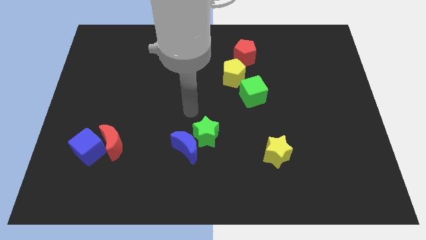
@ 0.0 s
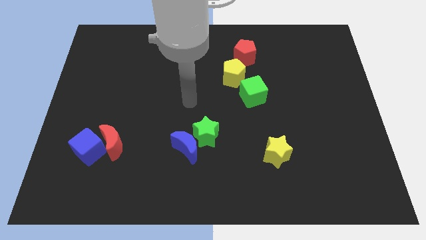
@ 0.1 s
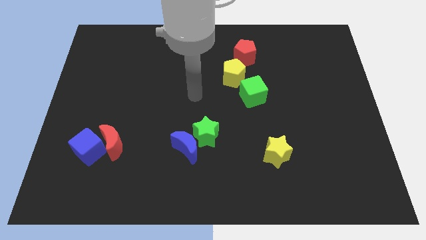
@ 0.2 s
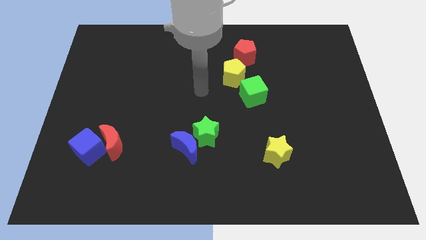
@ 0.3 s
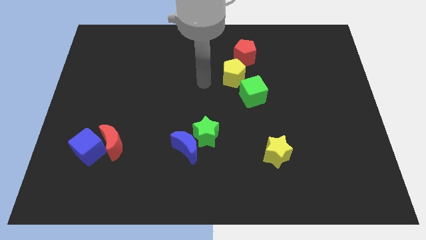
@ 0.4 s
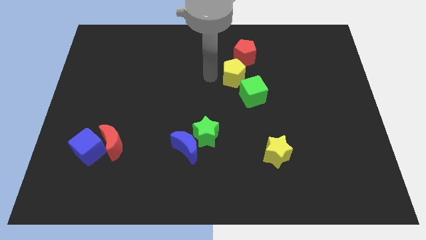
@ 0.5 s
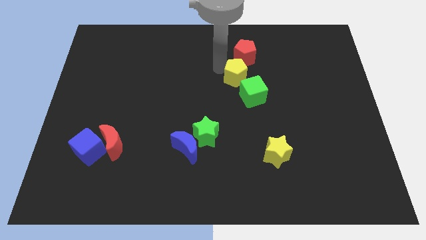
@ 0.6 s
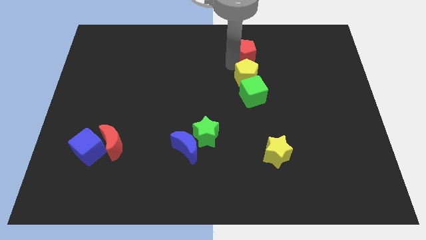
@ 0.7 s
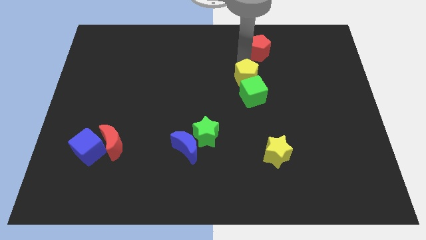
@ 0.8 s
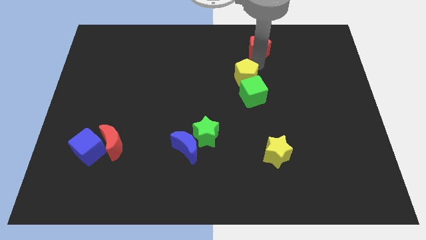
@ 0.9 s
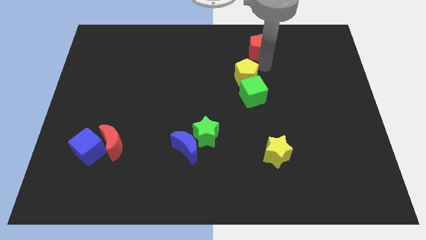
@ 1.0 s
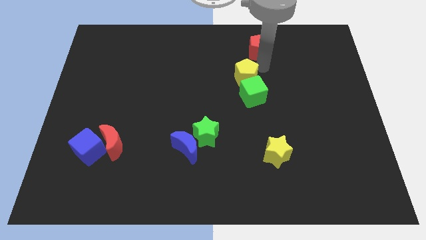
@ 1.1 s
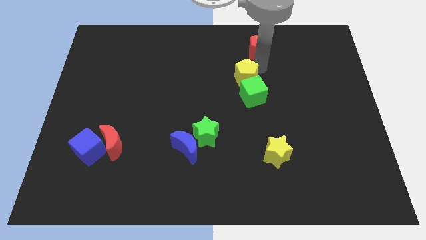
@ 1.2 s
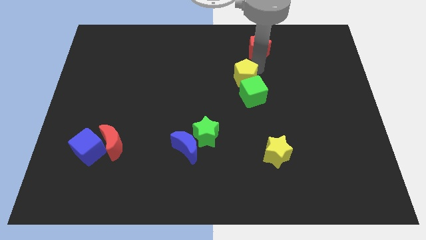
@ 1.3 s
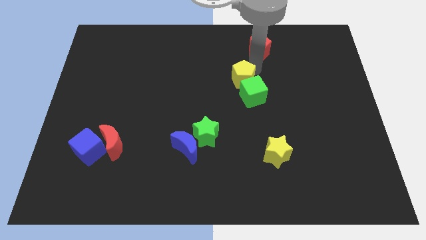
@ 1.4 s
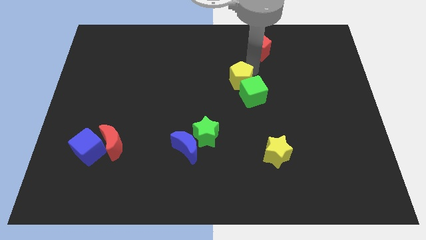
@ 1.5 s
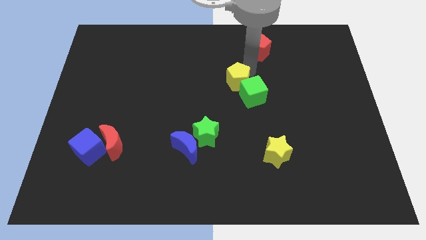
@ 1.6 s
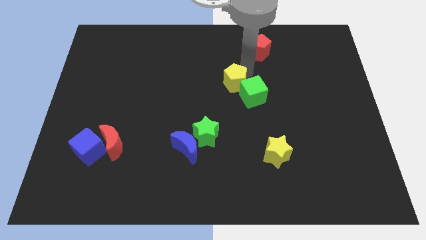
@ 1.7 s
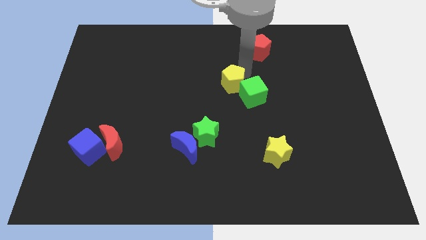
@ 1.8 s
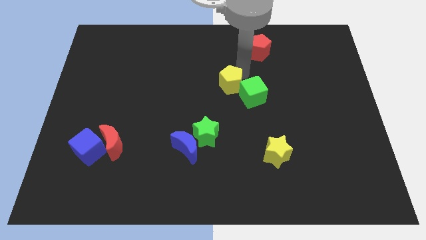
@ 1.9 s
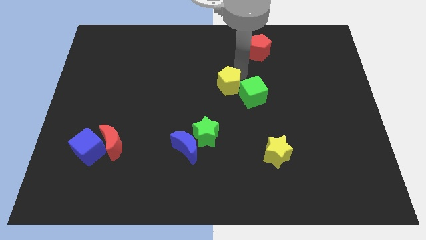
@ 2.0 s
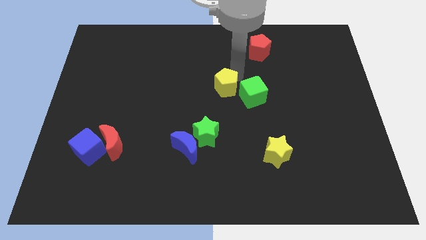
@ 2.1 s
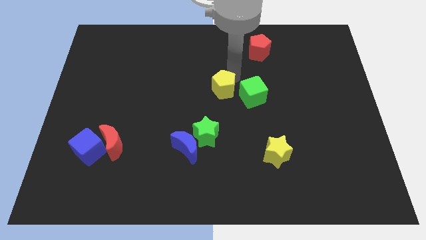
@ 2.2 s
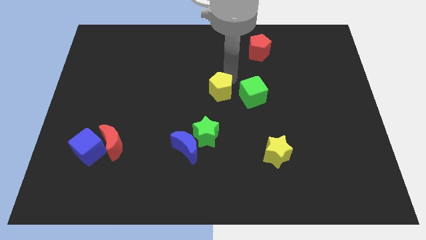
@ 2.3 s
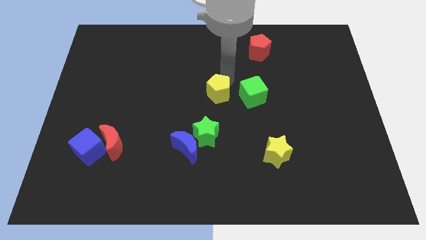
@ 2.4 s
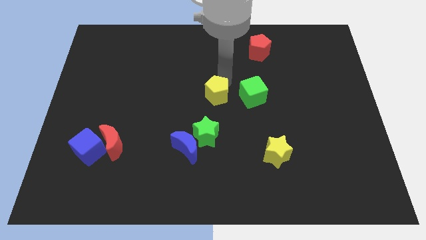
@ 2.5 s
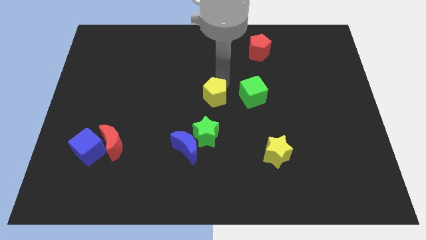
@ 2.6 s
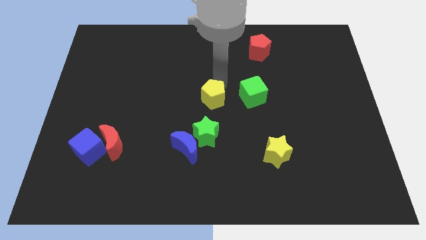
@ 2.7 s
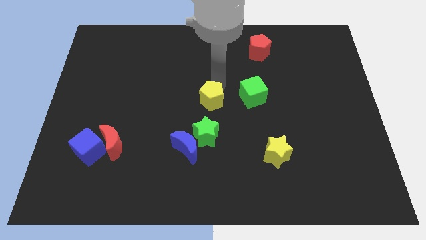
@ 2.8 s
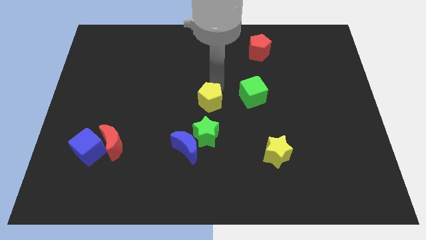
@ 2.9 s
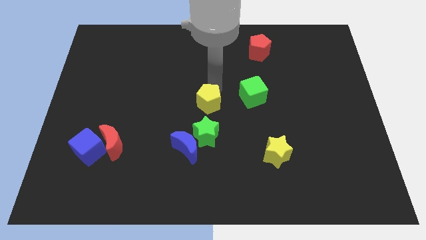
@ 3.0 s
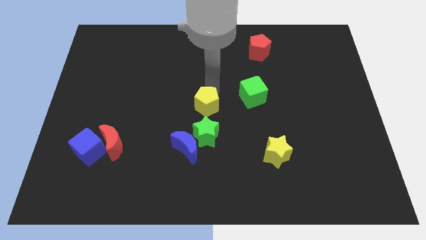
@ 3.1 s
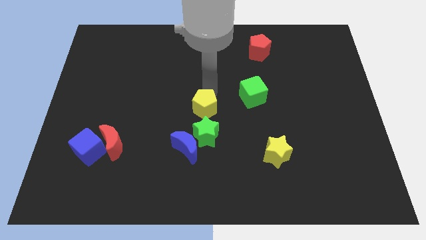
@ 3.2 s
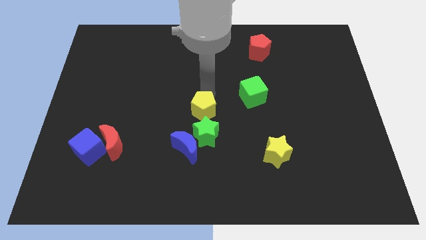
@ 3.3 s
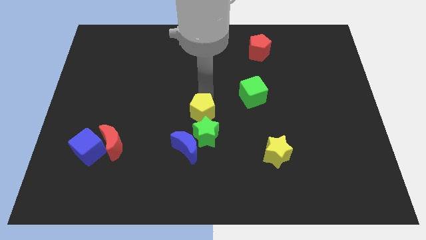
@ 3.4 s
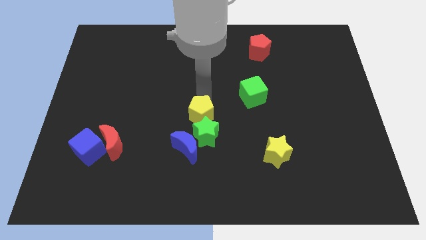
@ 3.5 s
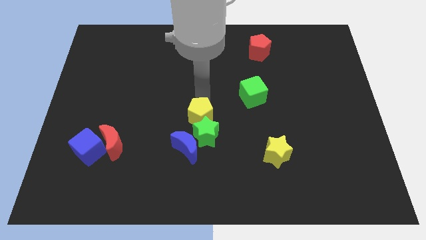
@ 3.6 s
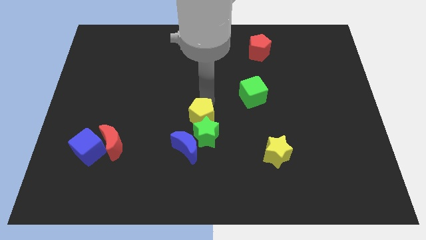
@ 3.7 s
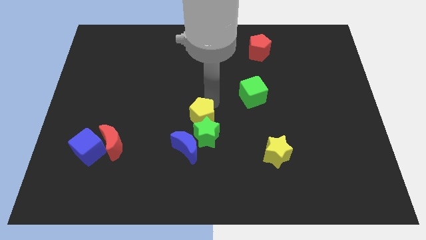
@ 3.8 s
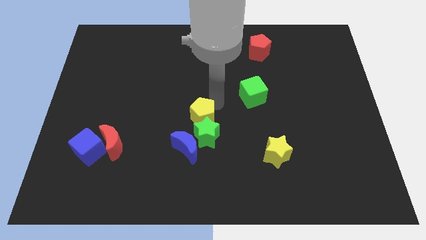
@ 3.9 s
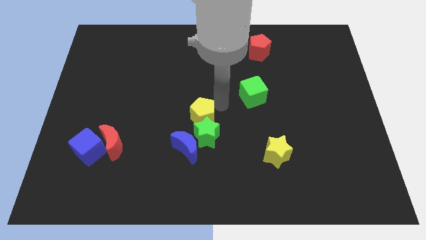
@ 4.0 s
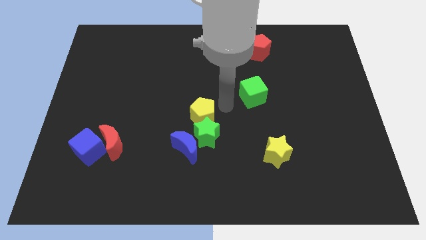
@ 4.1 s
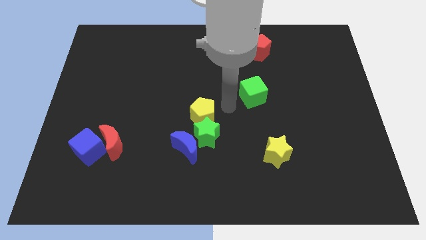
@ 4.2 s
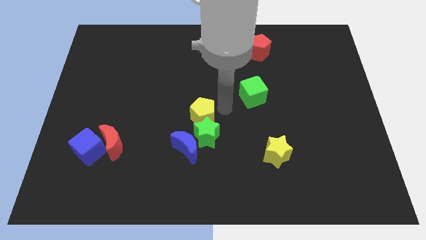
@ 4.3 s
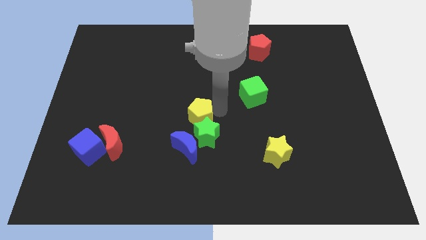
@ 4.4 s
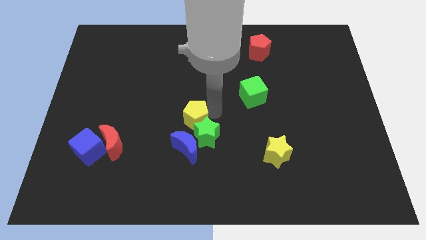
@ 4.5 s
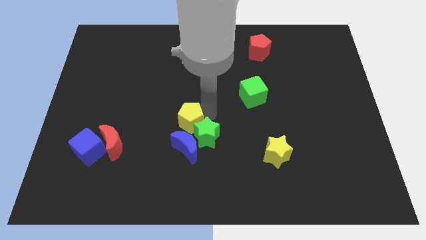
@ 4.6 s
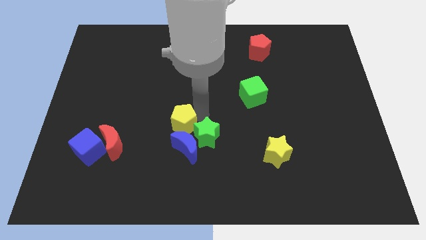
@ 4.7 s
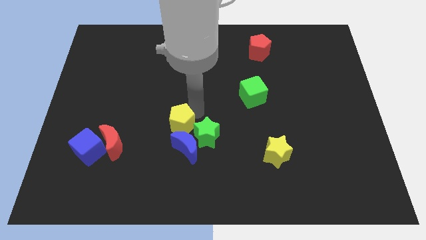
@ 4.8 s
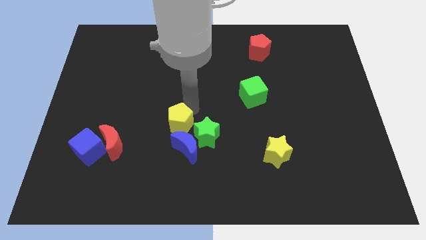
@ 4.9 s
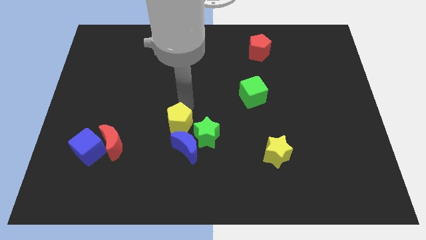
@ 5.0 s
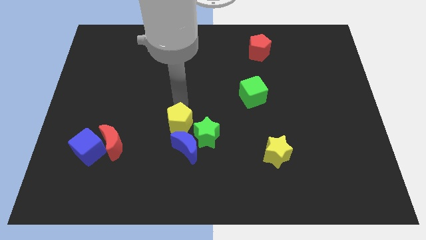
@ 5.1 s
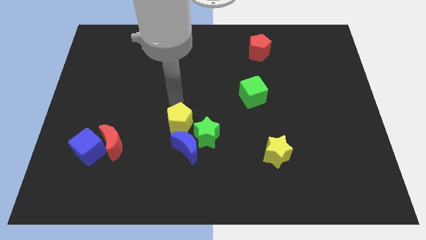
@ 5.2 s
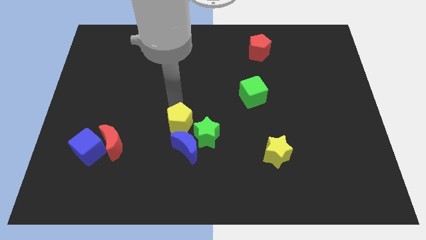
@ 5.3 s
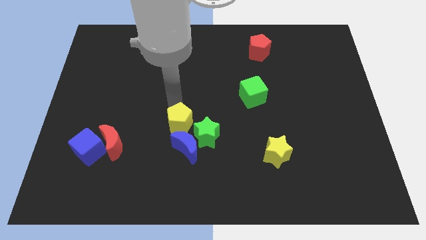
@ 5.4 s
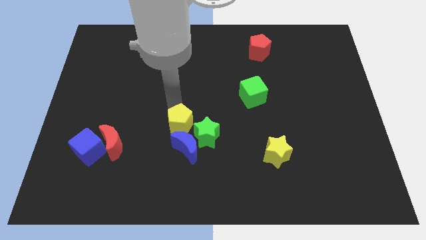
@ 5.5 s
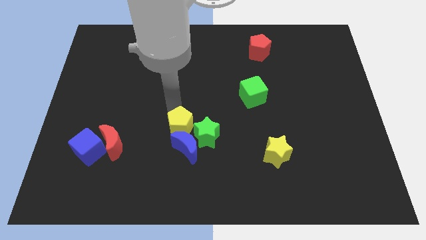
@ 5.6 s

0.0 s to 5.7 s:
slide the yellow pentagon towards the blue moon

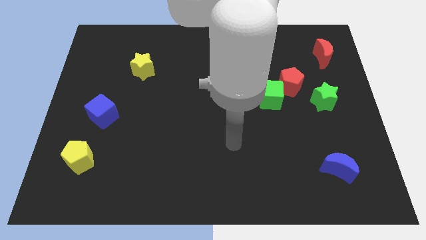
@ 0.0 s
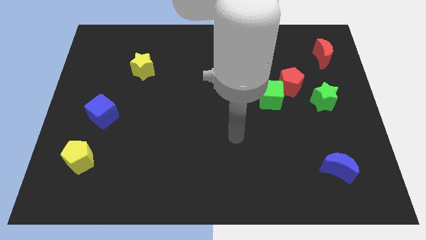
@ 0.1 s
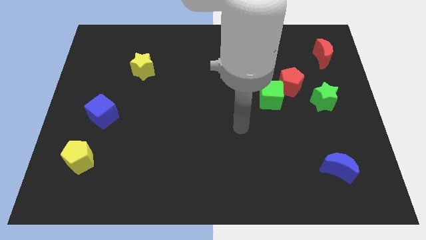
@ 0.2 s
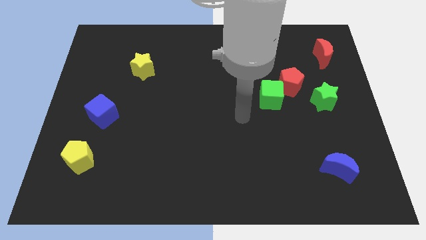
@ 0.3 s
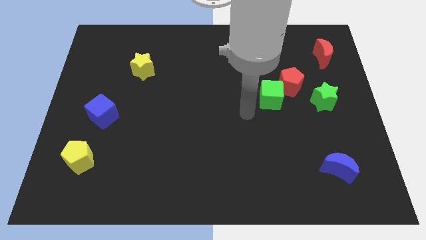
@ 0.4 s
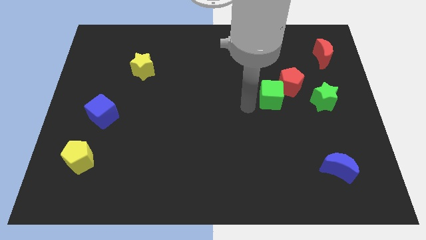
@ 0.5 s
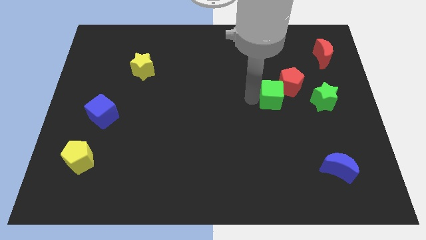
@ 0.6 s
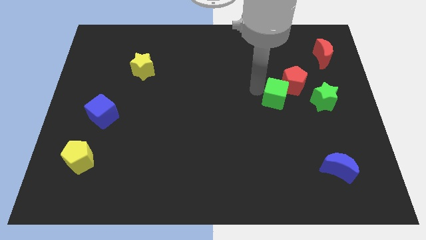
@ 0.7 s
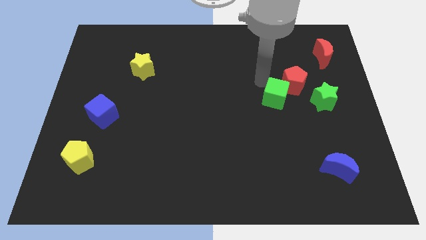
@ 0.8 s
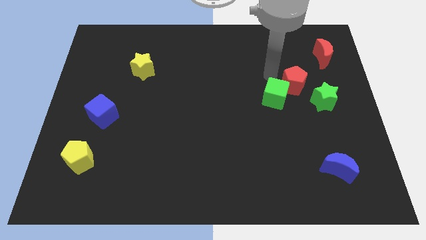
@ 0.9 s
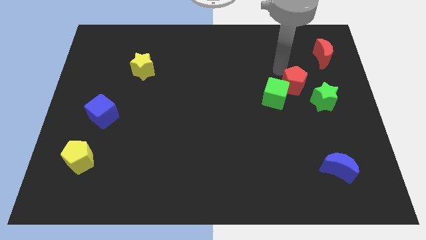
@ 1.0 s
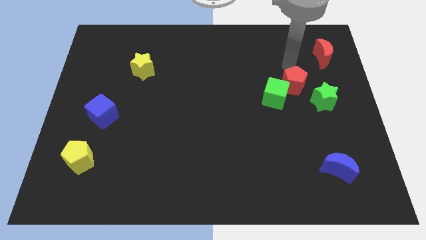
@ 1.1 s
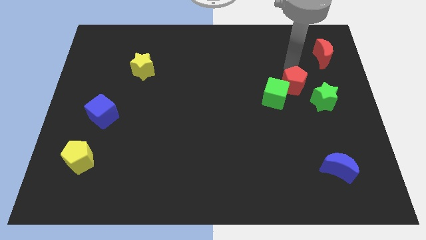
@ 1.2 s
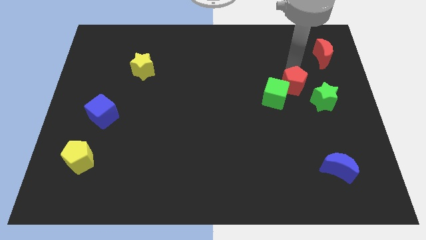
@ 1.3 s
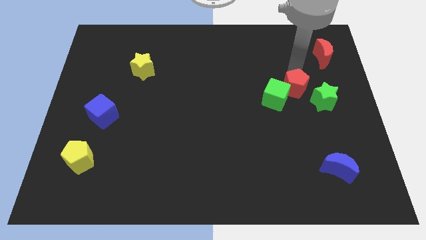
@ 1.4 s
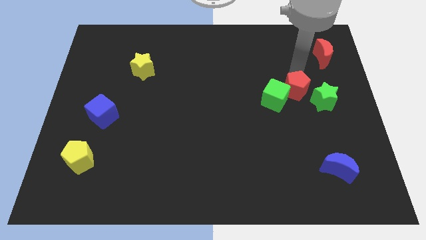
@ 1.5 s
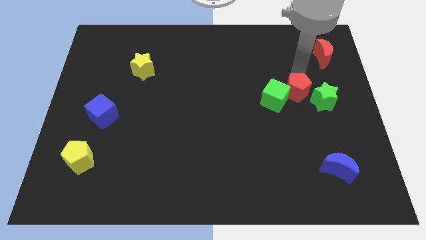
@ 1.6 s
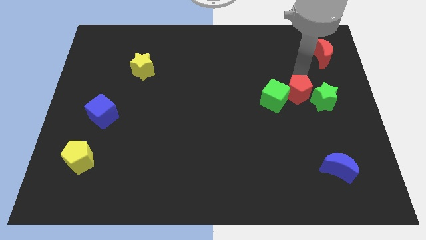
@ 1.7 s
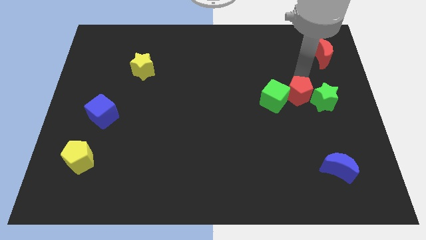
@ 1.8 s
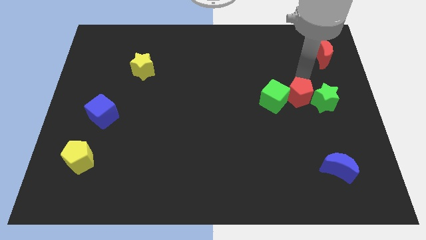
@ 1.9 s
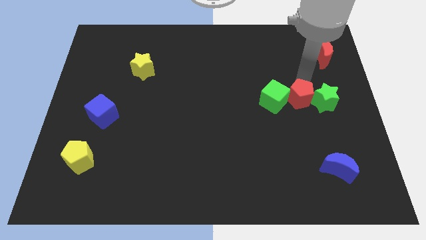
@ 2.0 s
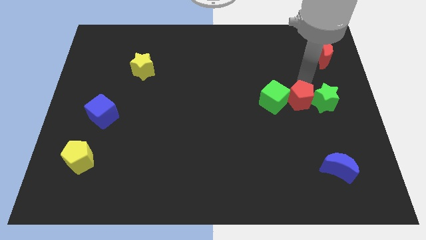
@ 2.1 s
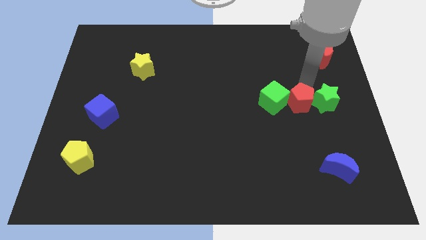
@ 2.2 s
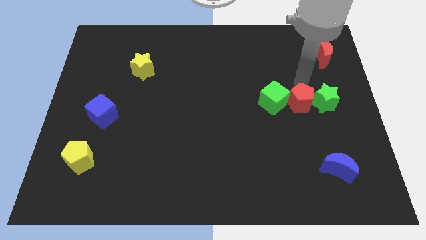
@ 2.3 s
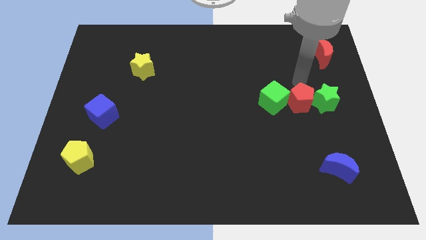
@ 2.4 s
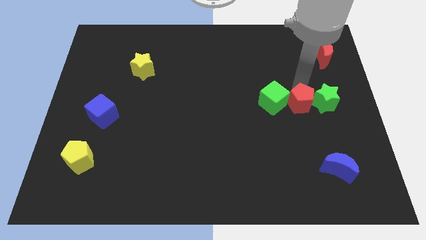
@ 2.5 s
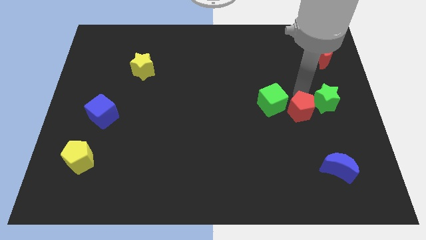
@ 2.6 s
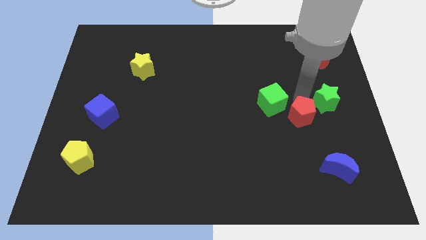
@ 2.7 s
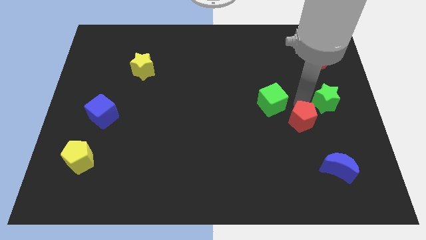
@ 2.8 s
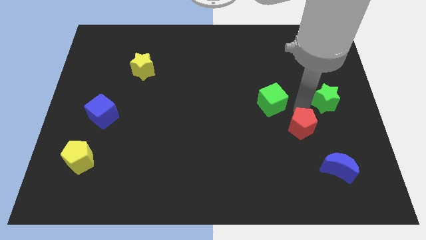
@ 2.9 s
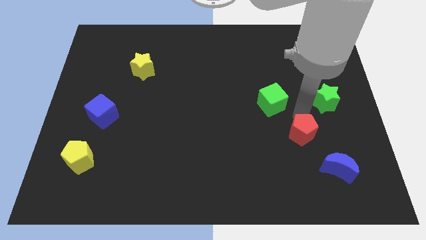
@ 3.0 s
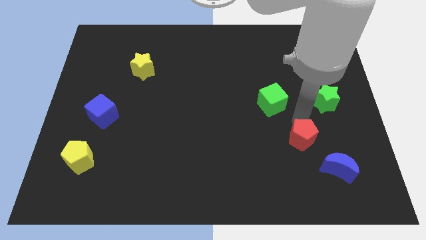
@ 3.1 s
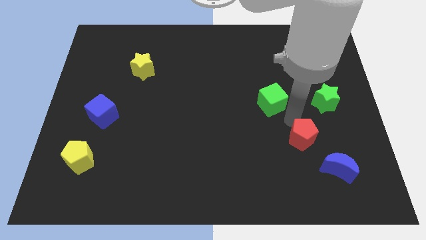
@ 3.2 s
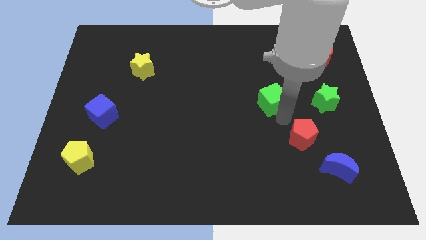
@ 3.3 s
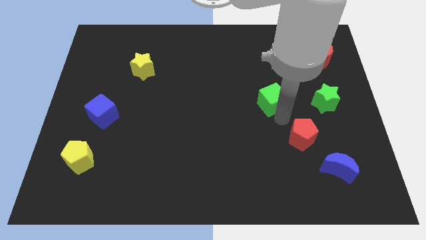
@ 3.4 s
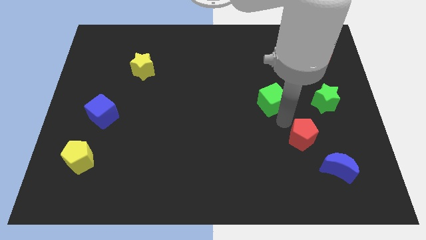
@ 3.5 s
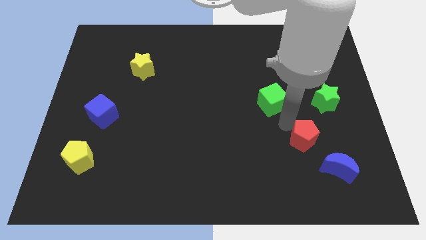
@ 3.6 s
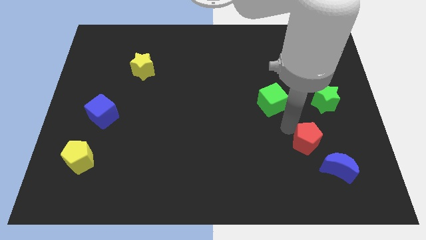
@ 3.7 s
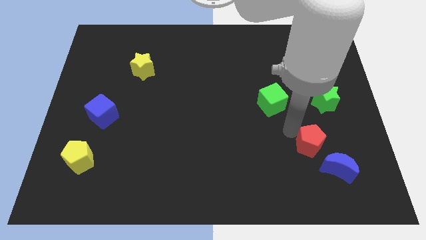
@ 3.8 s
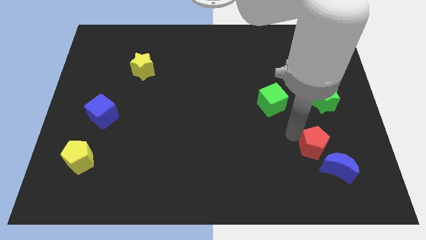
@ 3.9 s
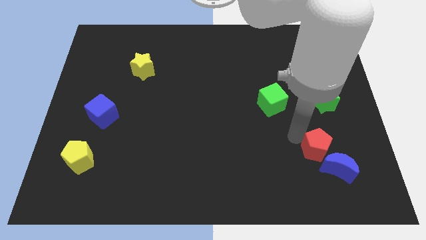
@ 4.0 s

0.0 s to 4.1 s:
put the red pentagon close to the blue moon
